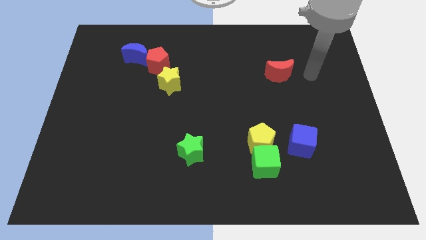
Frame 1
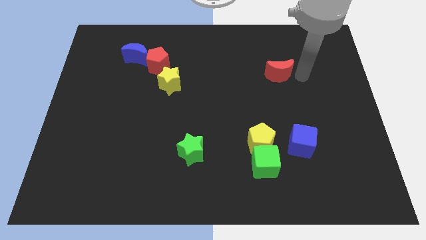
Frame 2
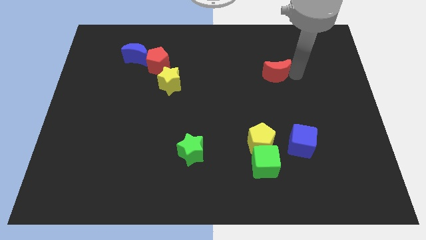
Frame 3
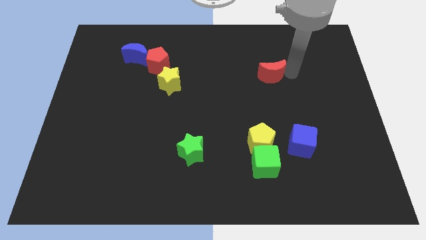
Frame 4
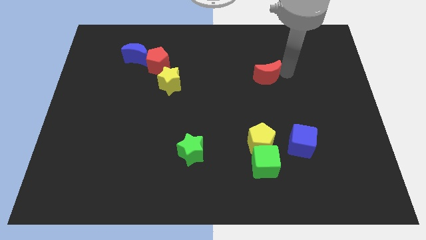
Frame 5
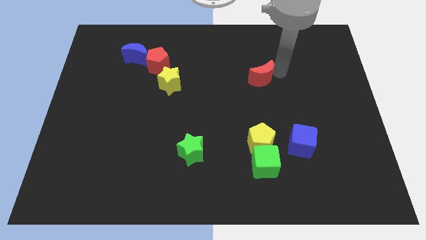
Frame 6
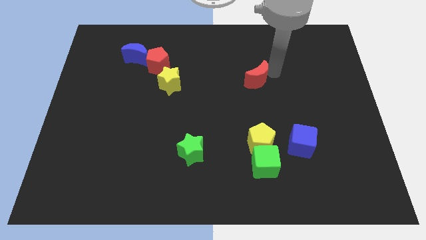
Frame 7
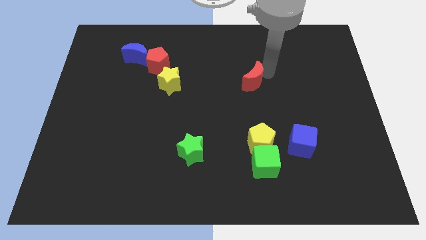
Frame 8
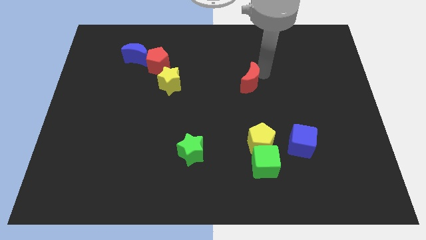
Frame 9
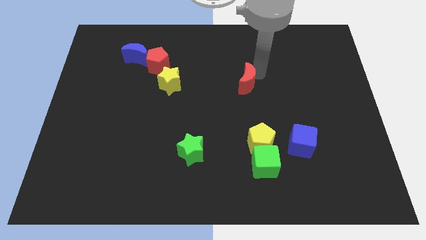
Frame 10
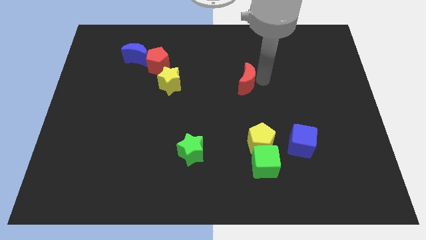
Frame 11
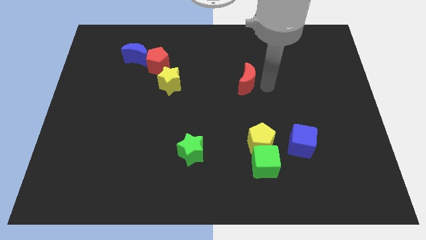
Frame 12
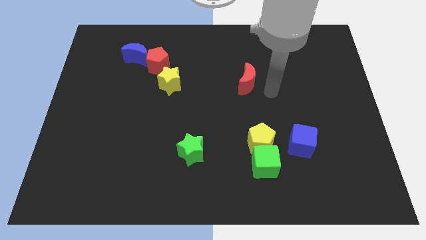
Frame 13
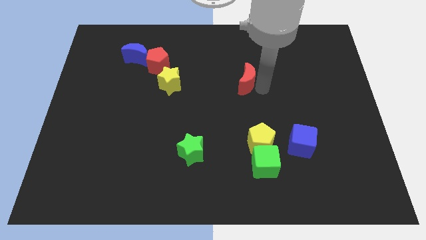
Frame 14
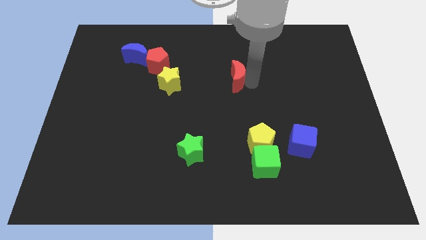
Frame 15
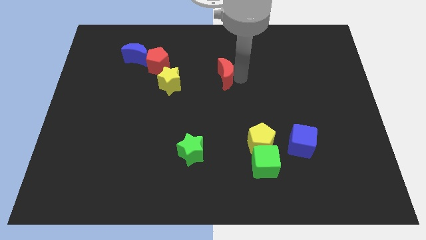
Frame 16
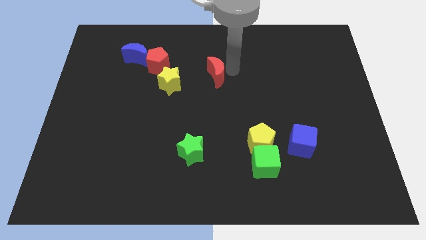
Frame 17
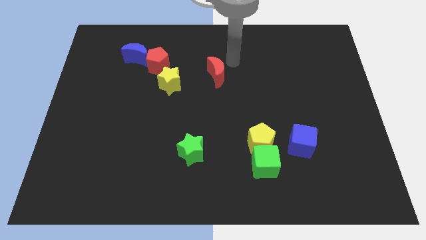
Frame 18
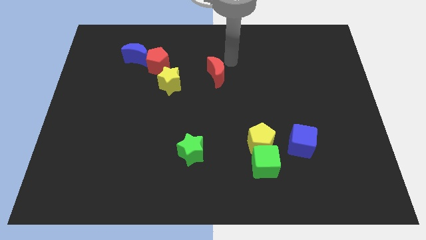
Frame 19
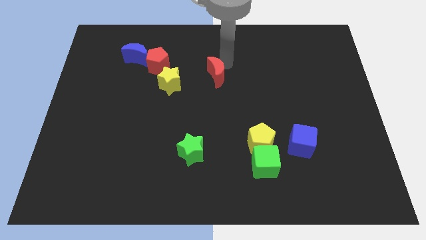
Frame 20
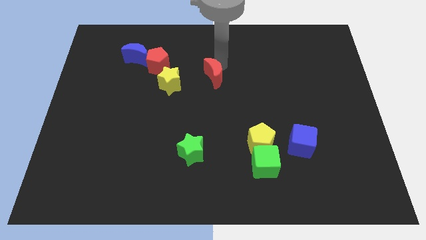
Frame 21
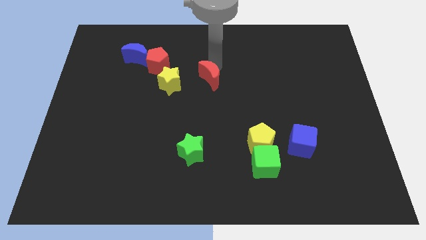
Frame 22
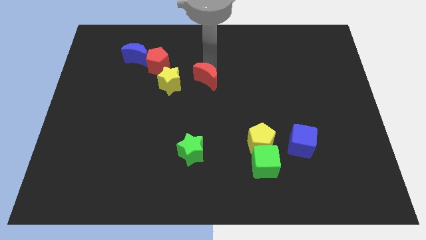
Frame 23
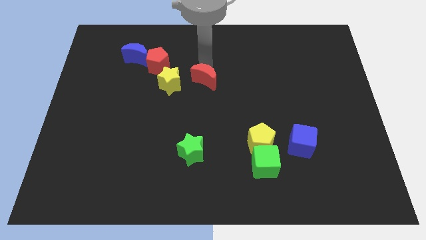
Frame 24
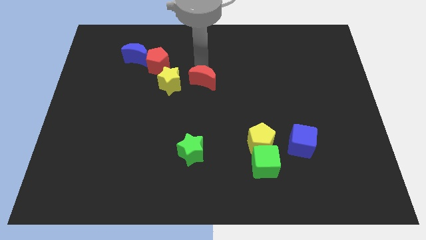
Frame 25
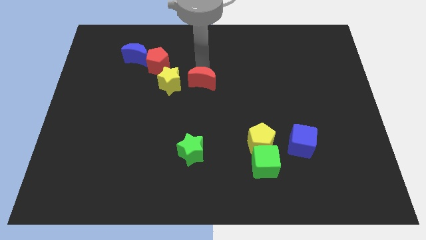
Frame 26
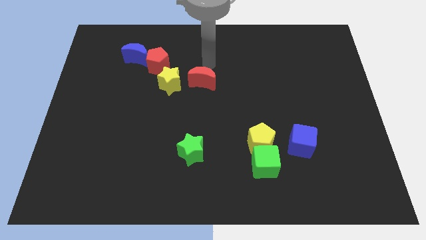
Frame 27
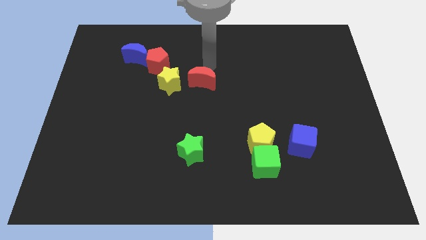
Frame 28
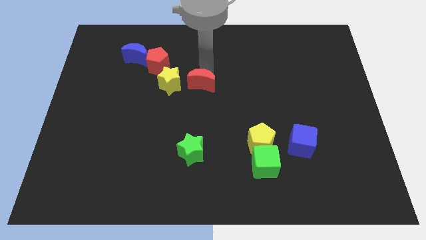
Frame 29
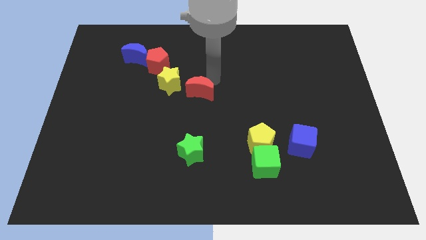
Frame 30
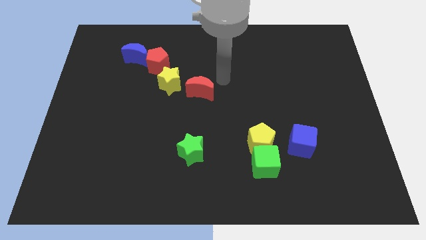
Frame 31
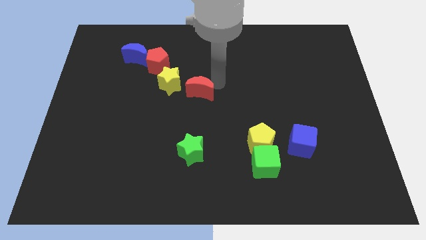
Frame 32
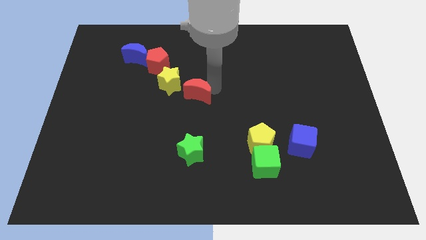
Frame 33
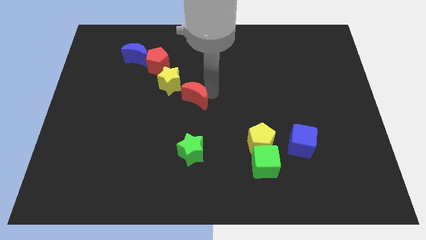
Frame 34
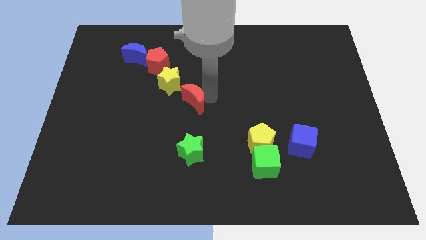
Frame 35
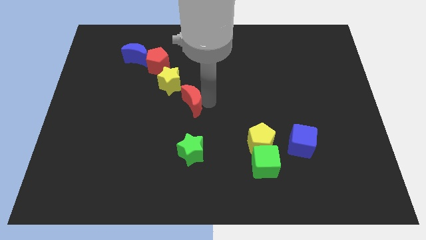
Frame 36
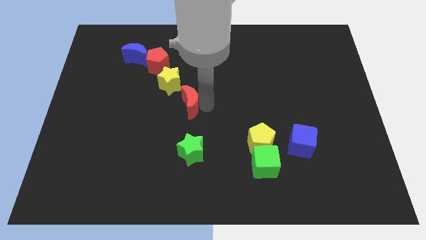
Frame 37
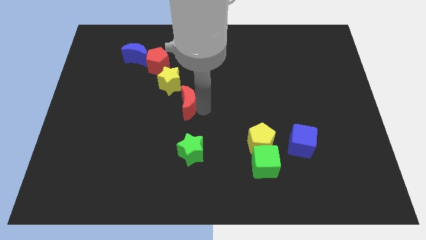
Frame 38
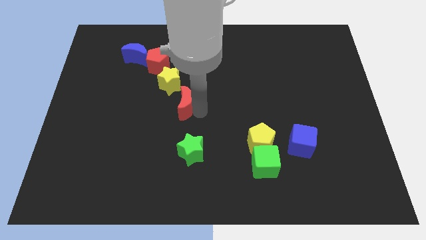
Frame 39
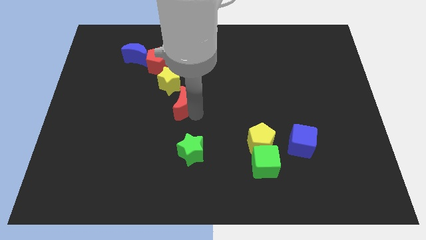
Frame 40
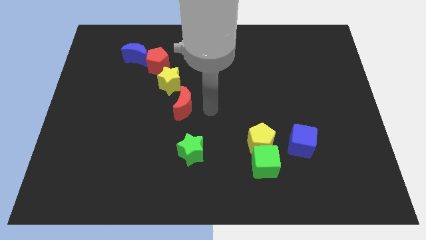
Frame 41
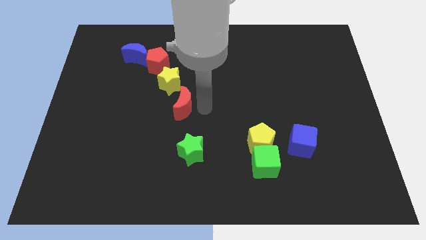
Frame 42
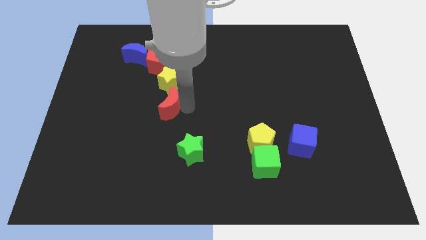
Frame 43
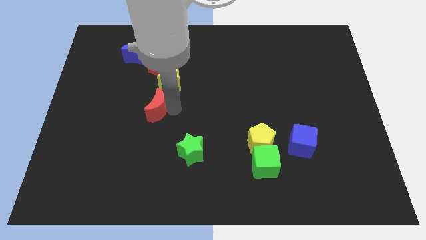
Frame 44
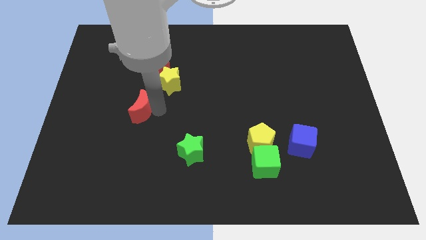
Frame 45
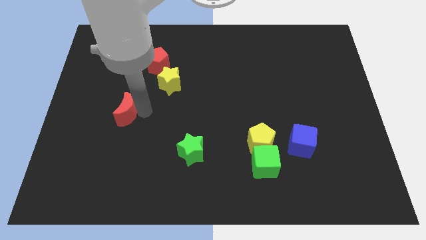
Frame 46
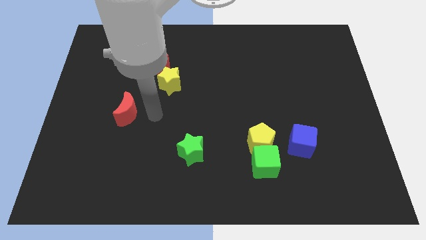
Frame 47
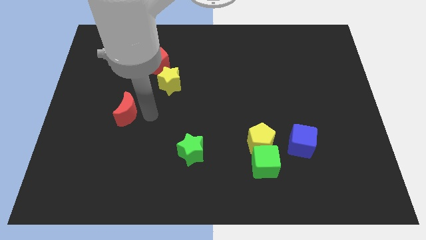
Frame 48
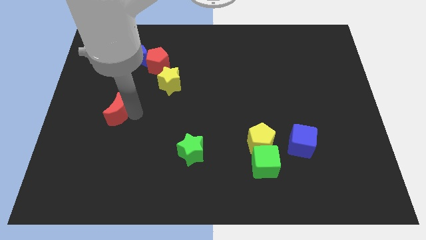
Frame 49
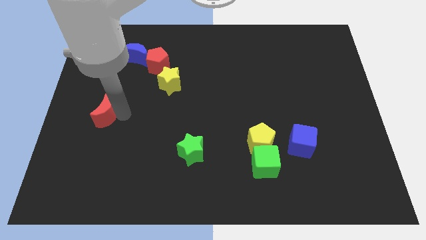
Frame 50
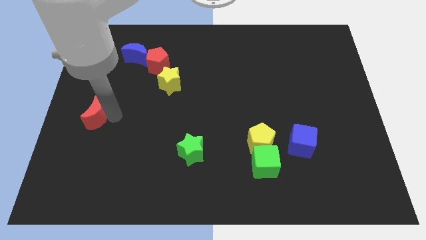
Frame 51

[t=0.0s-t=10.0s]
slide the red moon to the center left

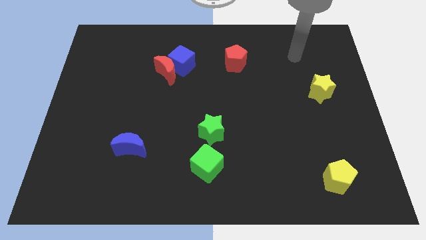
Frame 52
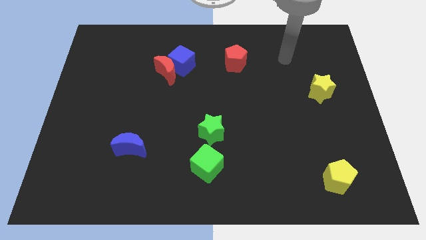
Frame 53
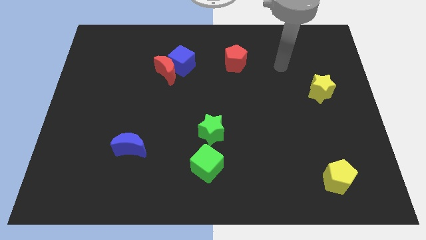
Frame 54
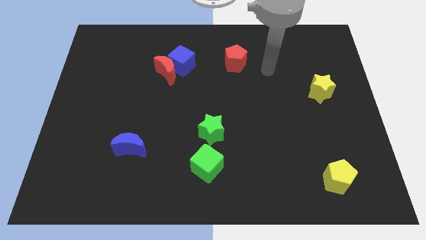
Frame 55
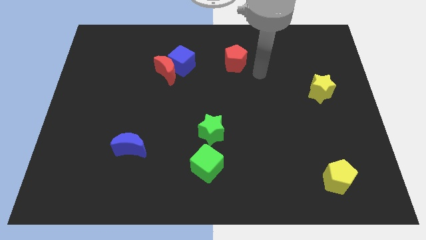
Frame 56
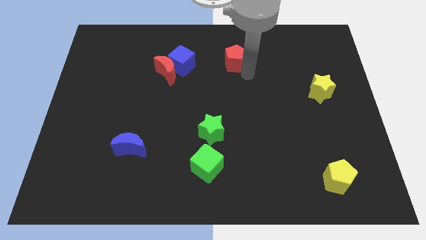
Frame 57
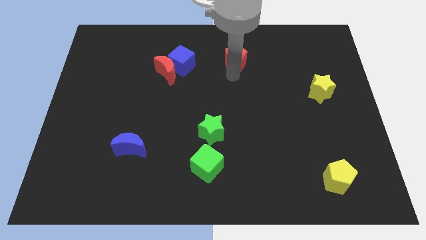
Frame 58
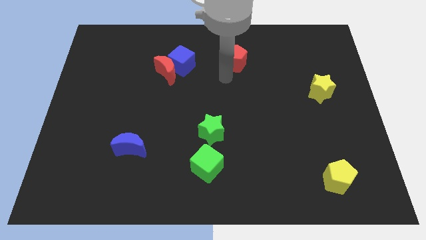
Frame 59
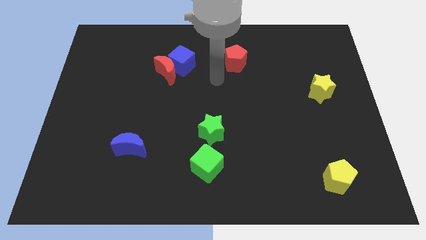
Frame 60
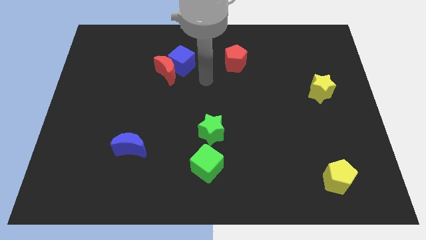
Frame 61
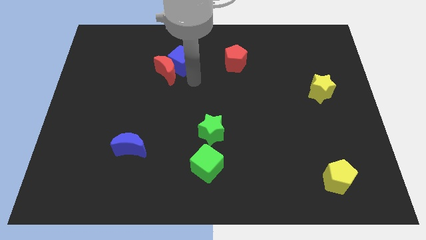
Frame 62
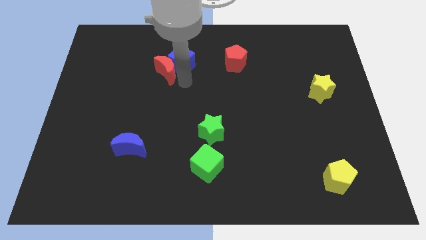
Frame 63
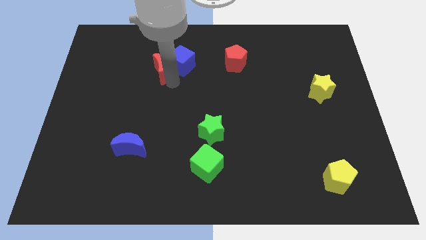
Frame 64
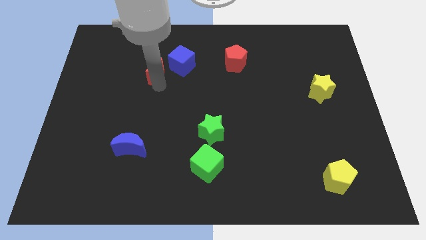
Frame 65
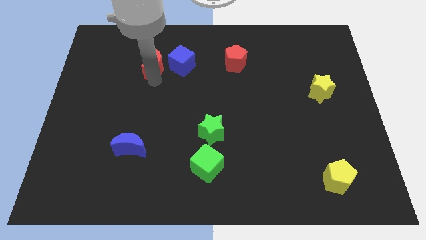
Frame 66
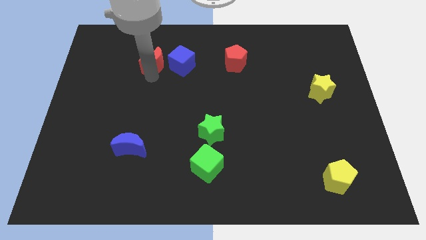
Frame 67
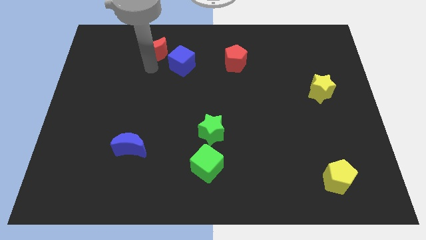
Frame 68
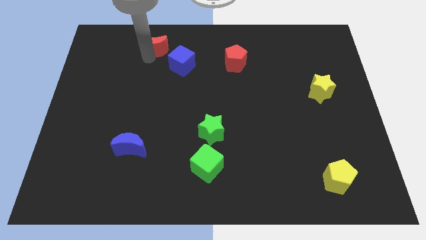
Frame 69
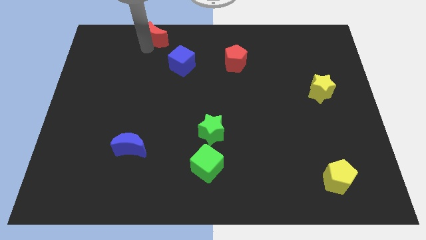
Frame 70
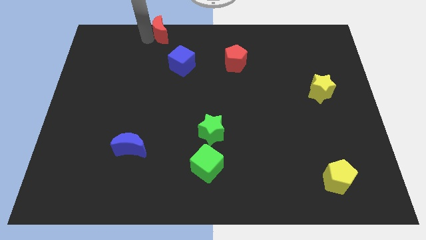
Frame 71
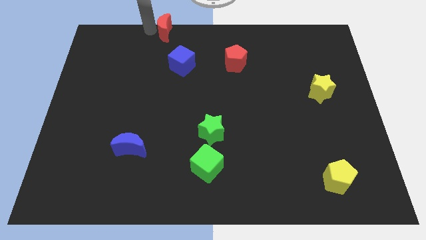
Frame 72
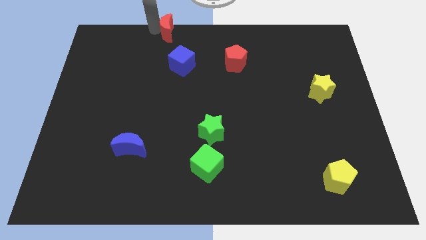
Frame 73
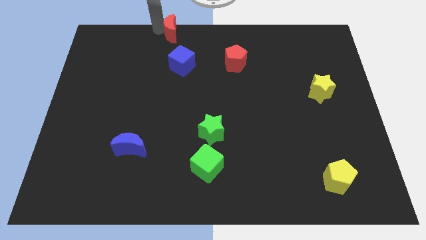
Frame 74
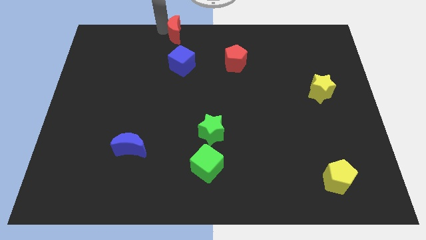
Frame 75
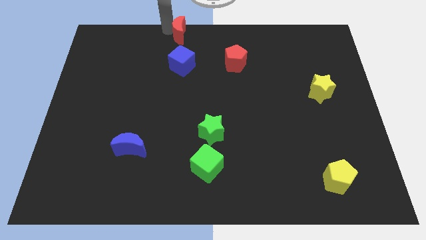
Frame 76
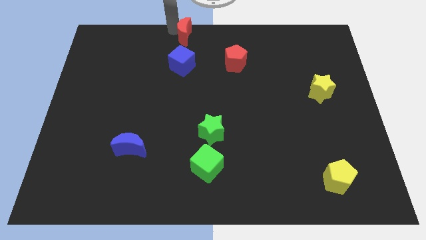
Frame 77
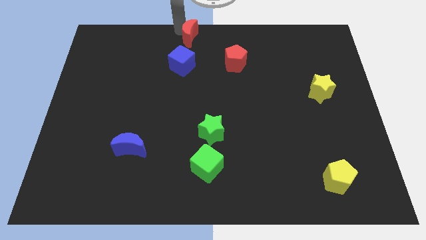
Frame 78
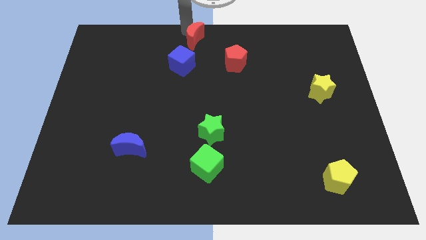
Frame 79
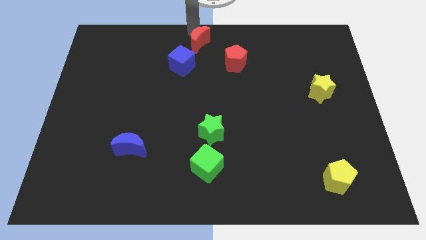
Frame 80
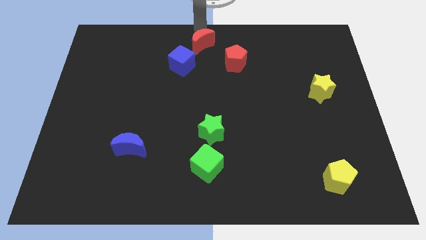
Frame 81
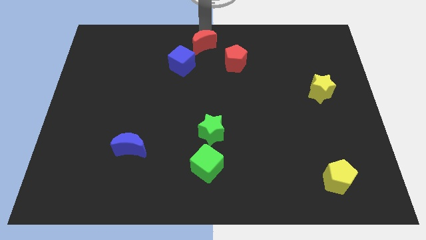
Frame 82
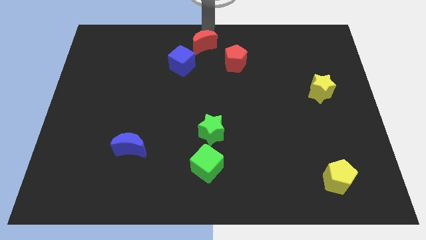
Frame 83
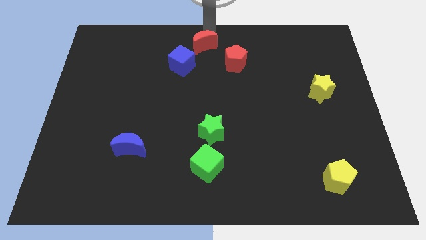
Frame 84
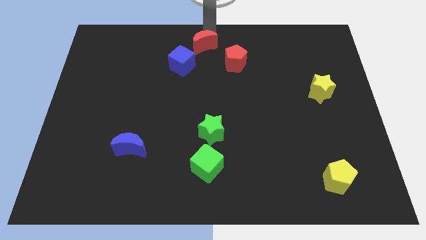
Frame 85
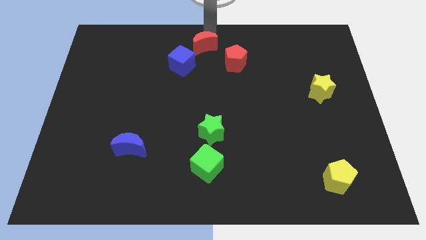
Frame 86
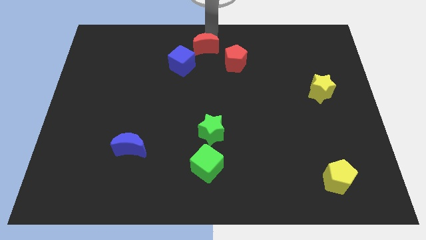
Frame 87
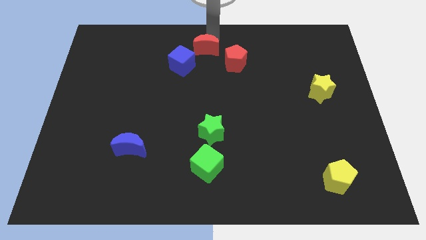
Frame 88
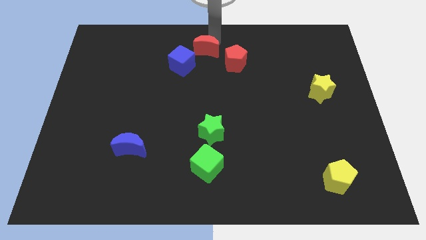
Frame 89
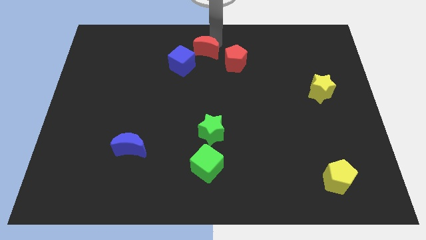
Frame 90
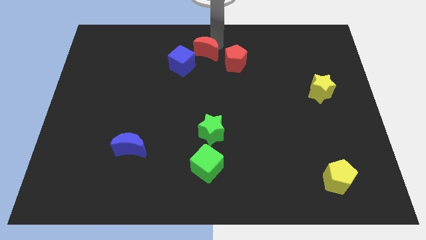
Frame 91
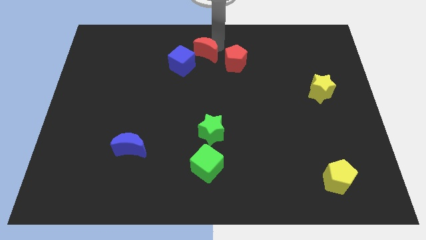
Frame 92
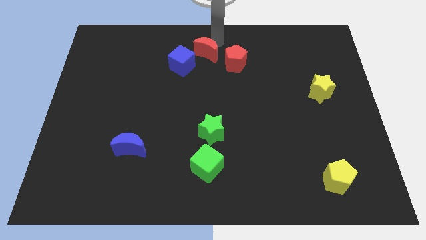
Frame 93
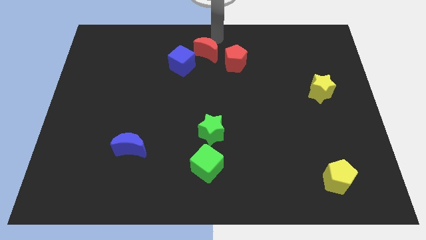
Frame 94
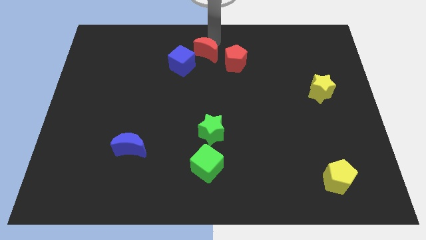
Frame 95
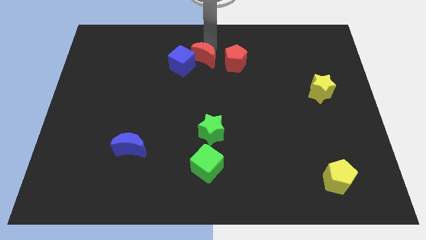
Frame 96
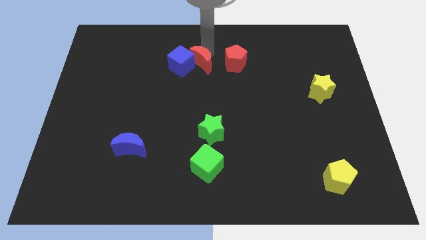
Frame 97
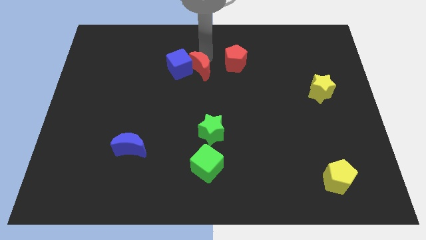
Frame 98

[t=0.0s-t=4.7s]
slide the red moon to the center
